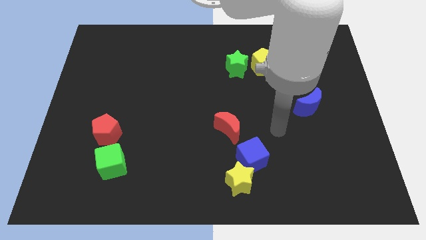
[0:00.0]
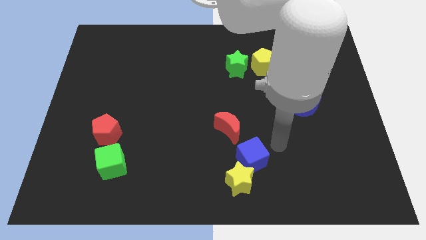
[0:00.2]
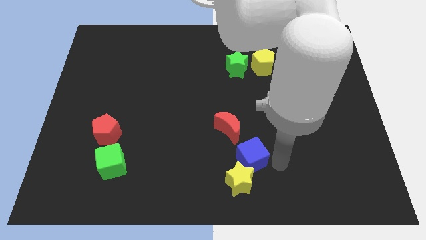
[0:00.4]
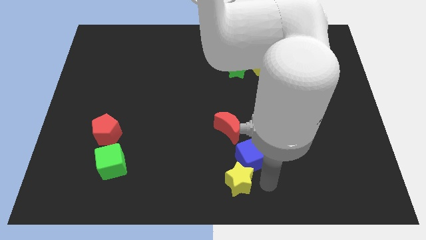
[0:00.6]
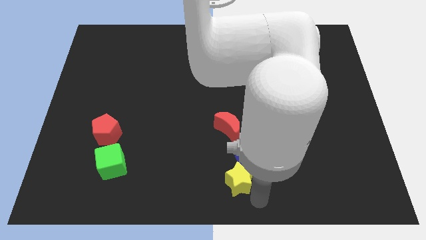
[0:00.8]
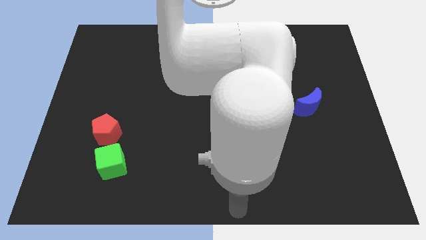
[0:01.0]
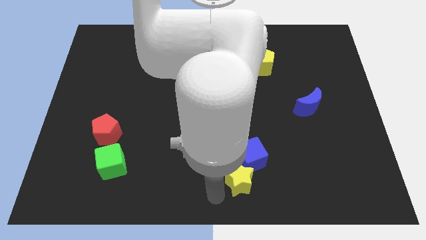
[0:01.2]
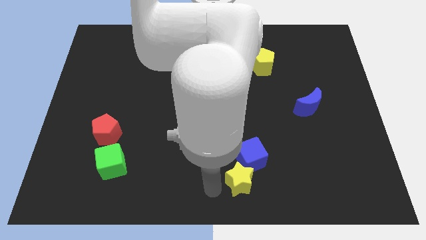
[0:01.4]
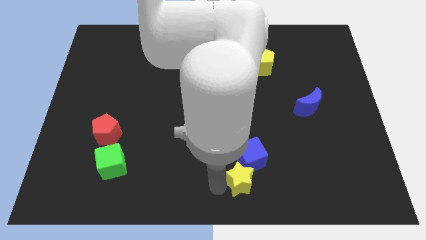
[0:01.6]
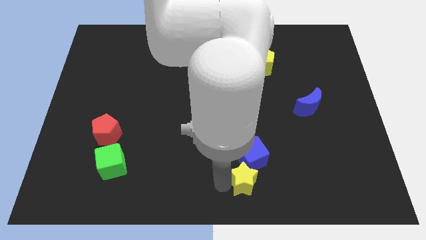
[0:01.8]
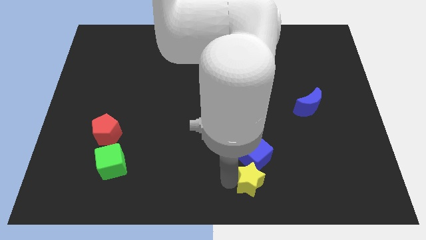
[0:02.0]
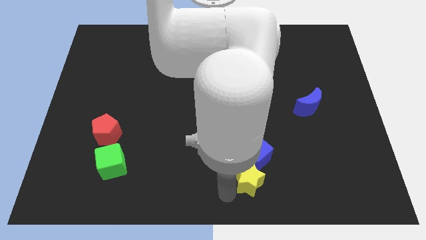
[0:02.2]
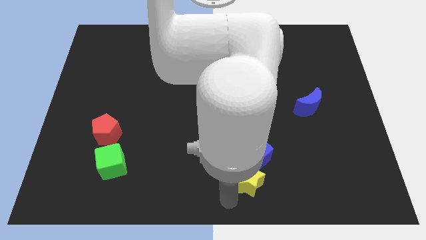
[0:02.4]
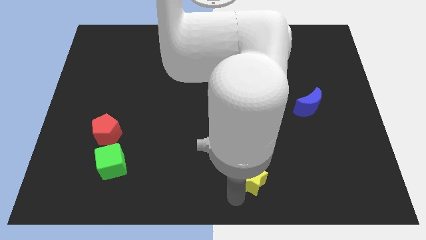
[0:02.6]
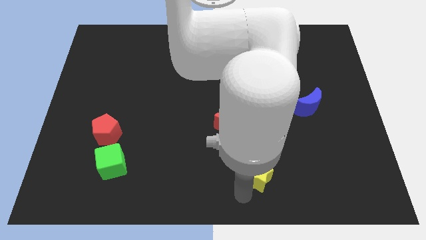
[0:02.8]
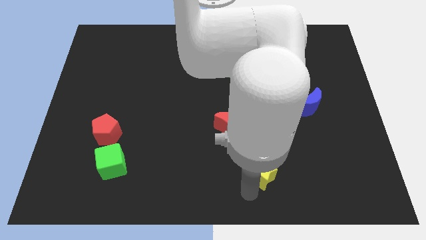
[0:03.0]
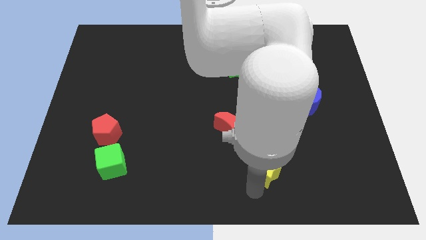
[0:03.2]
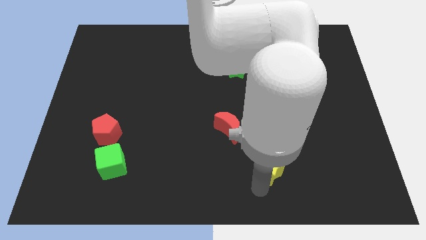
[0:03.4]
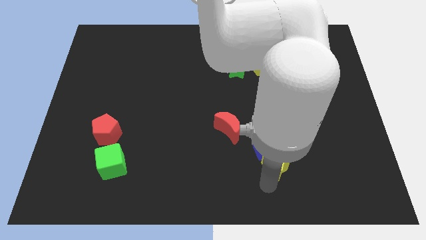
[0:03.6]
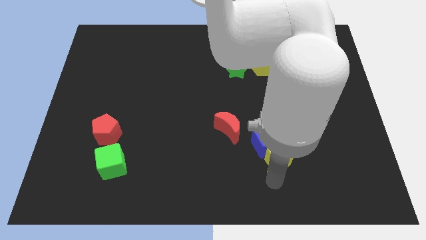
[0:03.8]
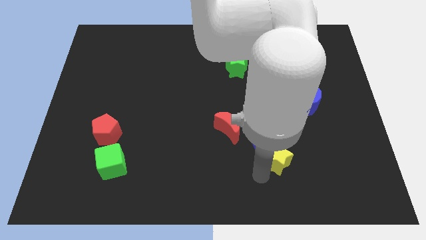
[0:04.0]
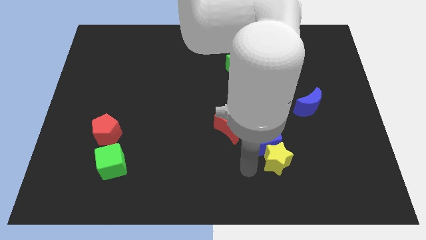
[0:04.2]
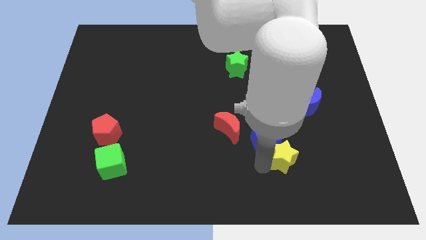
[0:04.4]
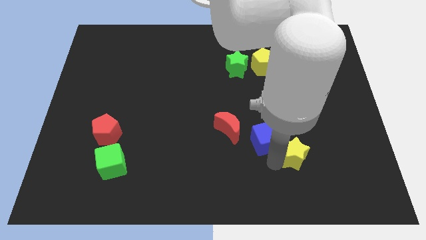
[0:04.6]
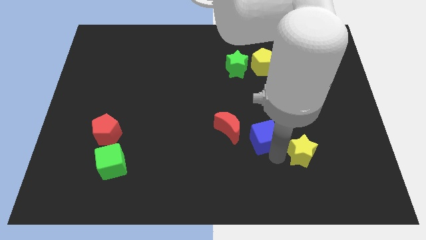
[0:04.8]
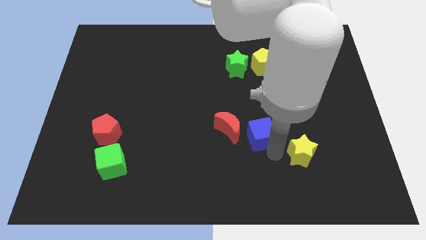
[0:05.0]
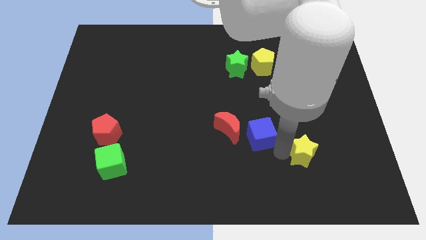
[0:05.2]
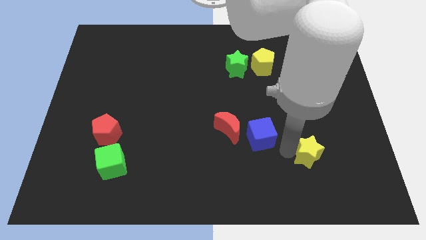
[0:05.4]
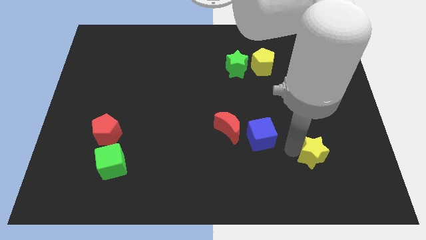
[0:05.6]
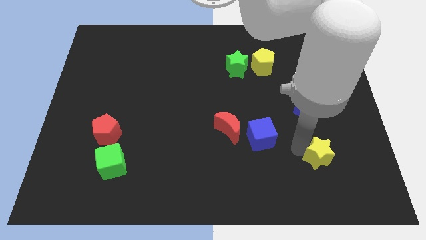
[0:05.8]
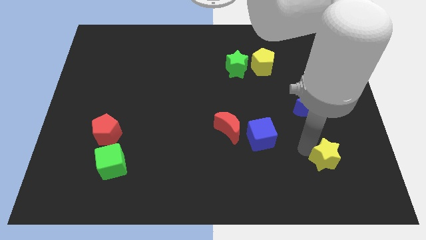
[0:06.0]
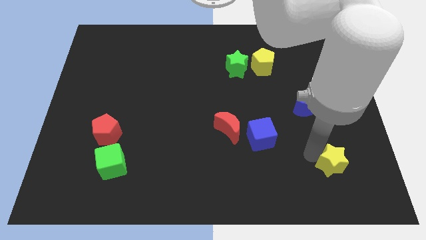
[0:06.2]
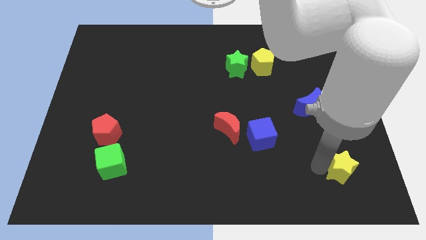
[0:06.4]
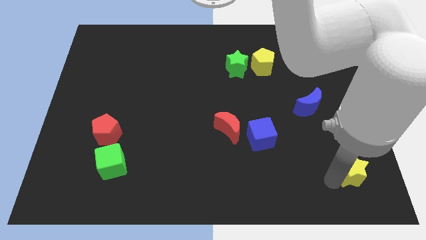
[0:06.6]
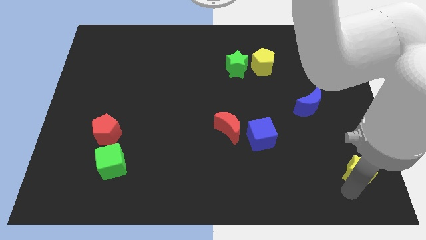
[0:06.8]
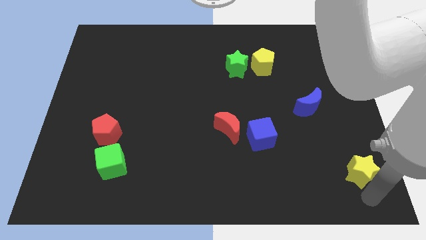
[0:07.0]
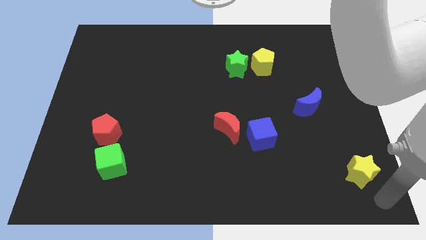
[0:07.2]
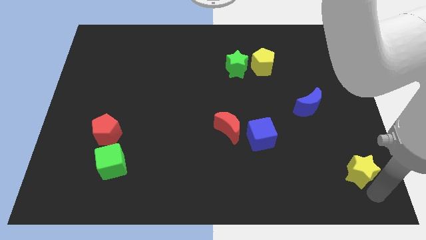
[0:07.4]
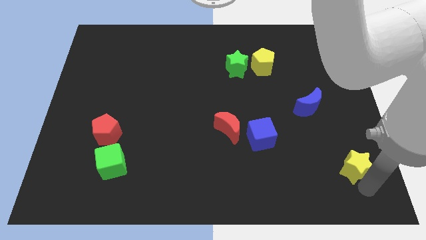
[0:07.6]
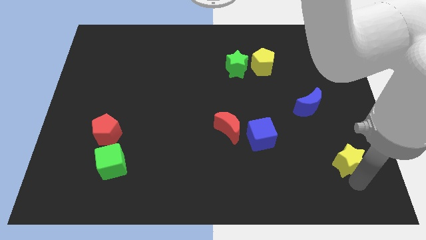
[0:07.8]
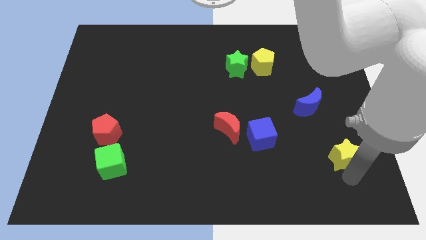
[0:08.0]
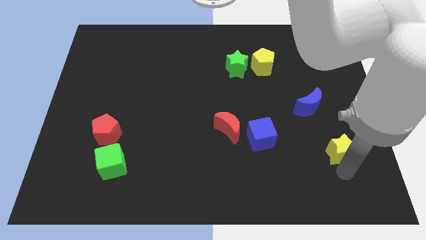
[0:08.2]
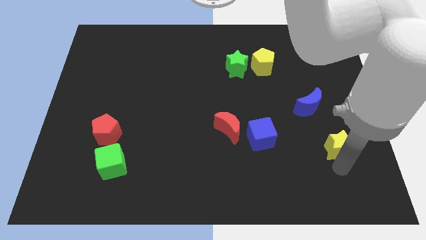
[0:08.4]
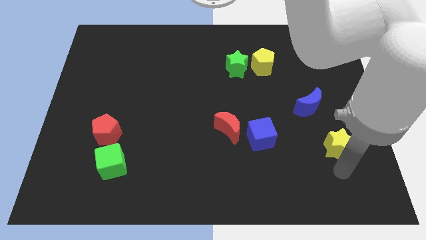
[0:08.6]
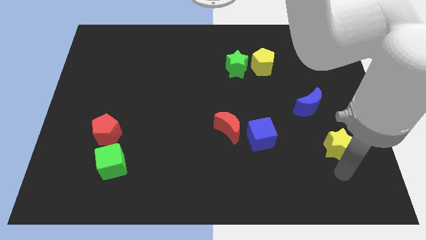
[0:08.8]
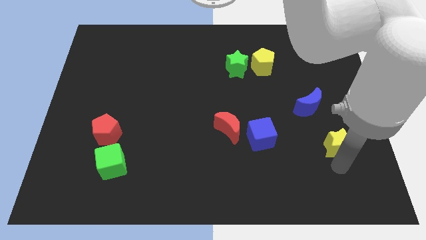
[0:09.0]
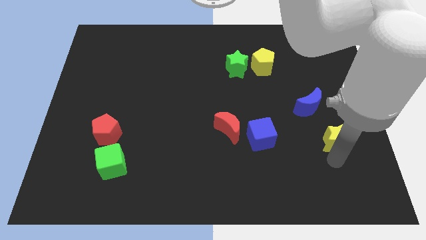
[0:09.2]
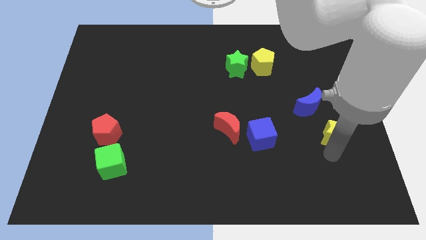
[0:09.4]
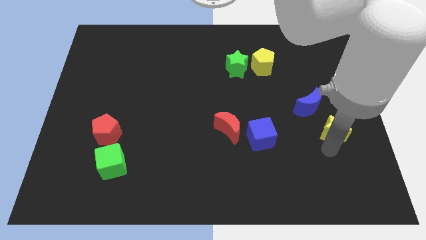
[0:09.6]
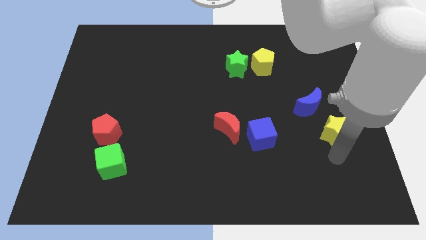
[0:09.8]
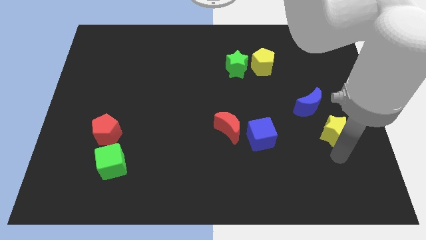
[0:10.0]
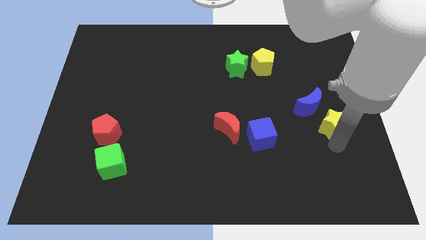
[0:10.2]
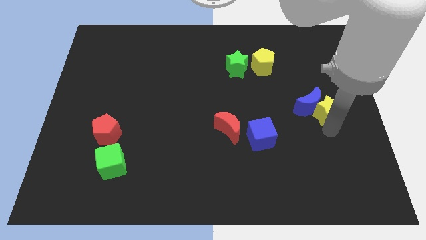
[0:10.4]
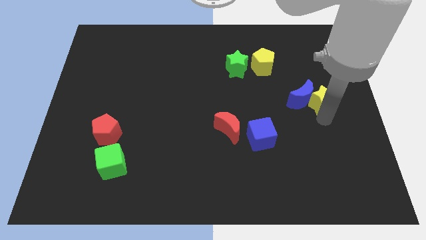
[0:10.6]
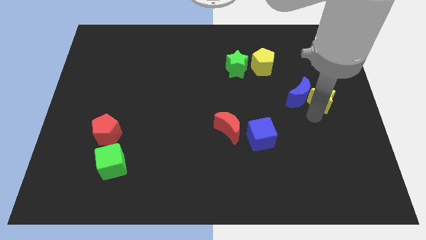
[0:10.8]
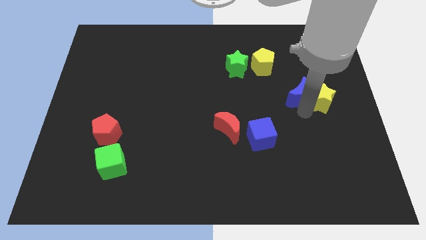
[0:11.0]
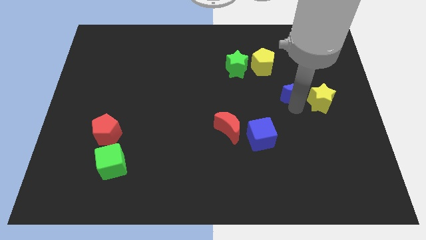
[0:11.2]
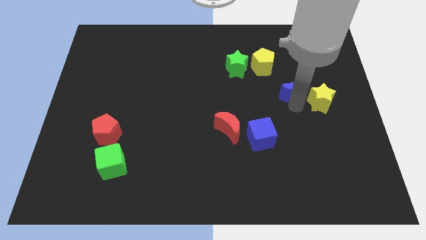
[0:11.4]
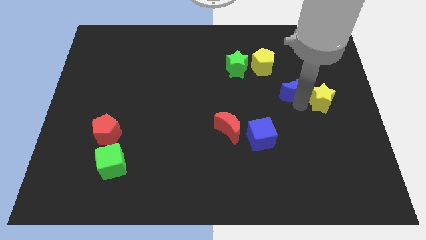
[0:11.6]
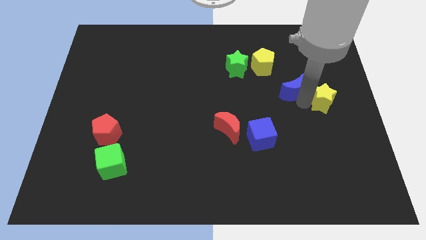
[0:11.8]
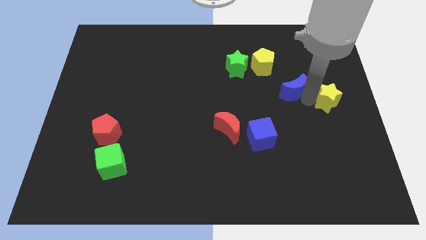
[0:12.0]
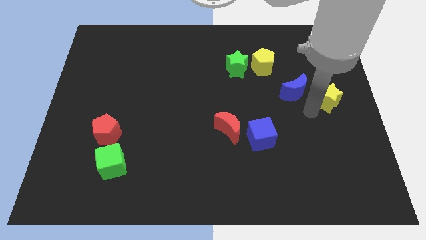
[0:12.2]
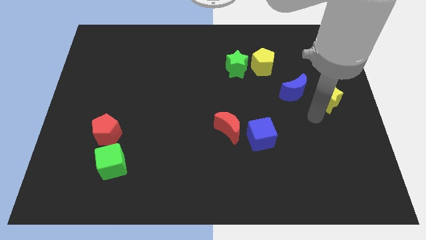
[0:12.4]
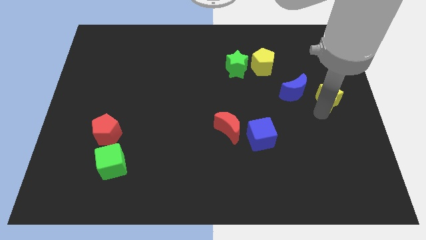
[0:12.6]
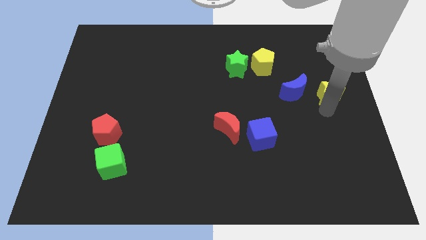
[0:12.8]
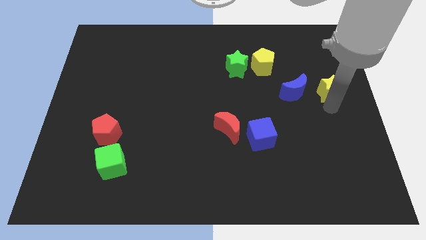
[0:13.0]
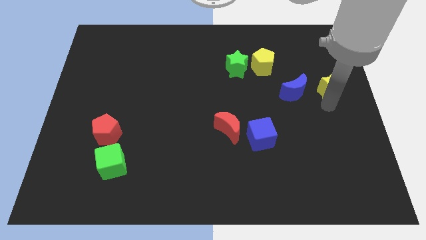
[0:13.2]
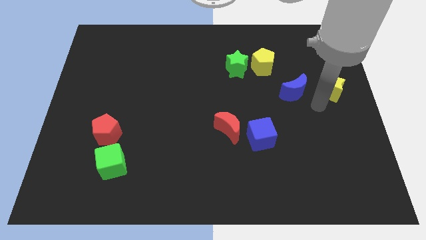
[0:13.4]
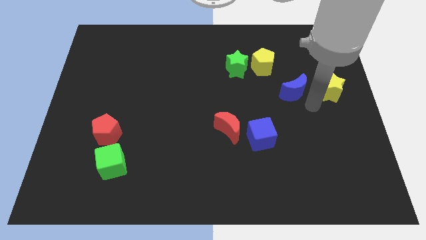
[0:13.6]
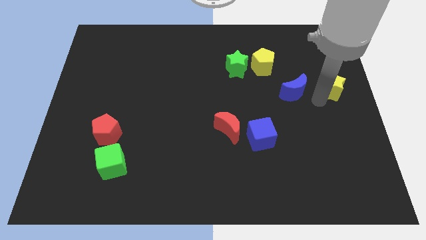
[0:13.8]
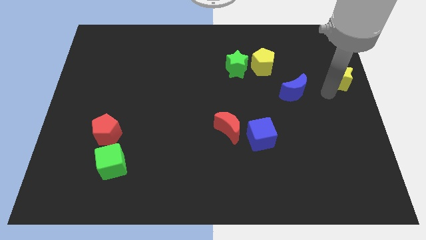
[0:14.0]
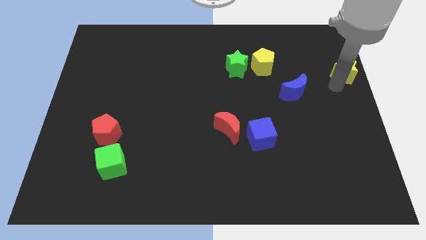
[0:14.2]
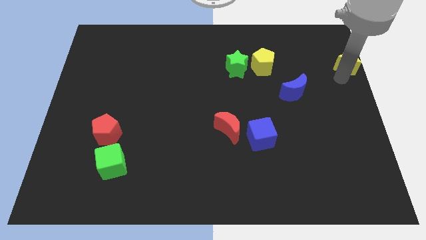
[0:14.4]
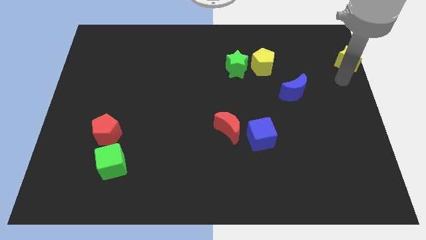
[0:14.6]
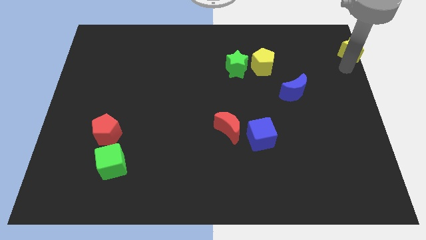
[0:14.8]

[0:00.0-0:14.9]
push the yellow star to the top right corner
